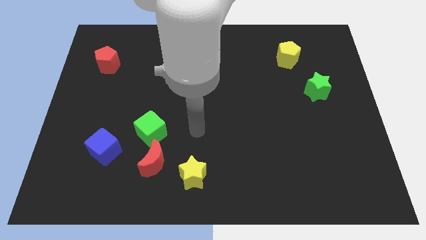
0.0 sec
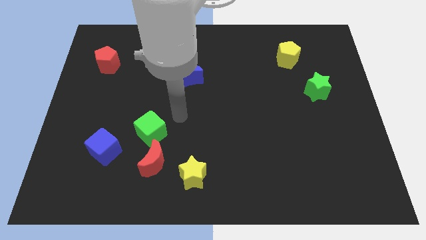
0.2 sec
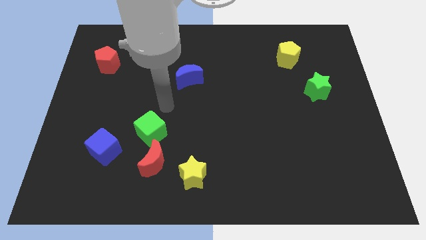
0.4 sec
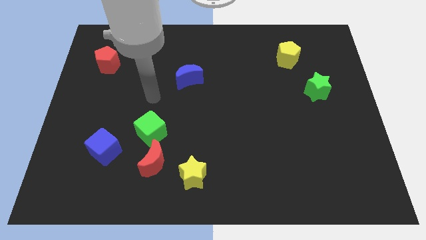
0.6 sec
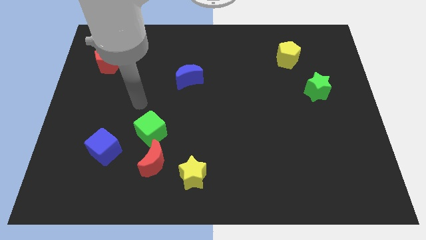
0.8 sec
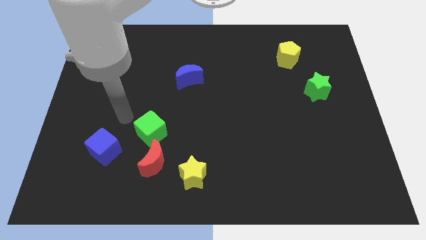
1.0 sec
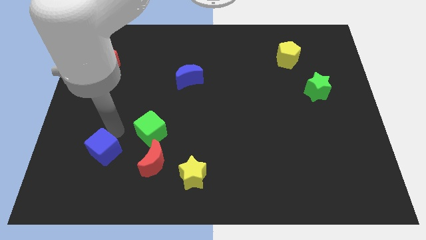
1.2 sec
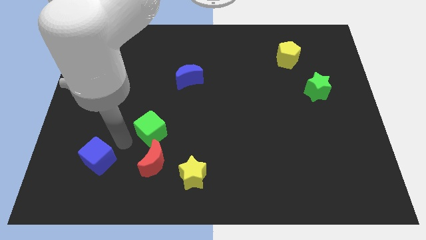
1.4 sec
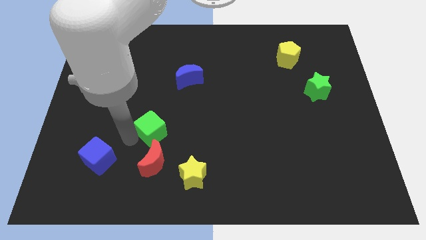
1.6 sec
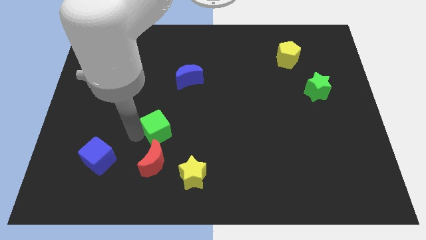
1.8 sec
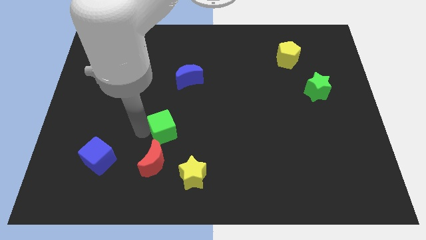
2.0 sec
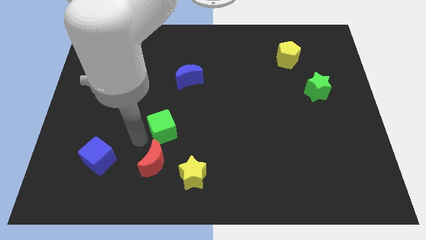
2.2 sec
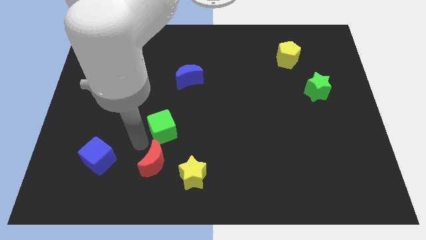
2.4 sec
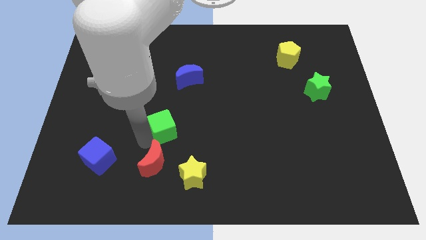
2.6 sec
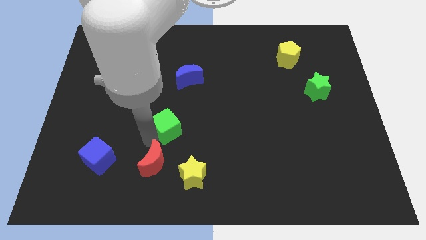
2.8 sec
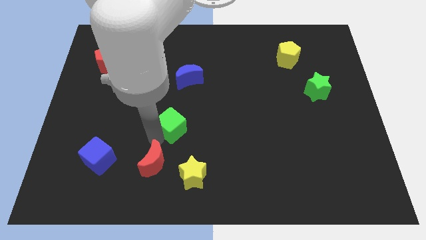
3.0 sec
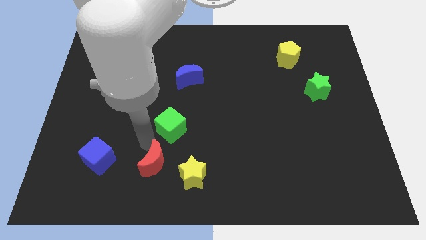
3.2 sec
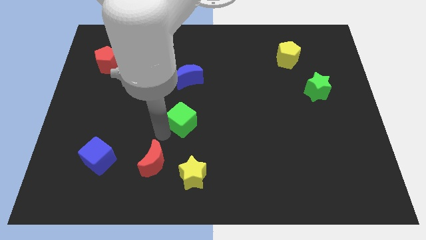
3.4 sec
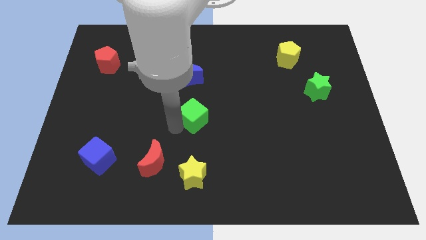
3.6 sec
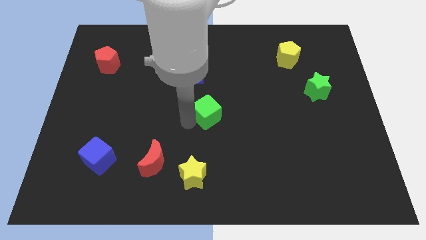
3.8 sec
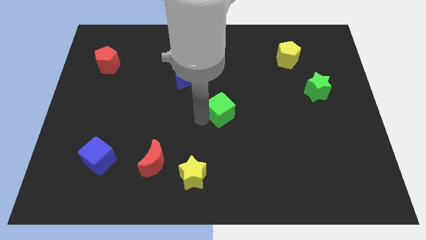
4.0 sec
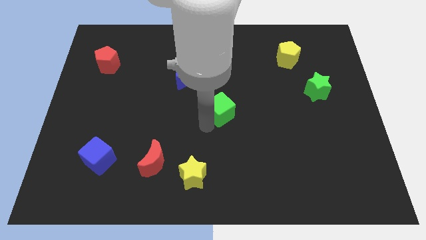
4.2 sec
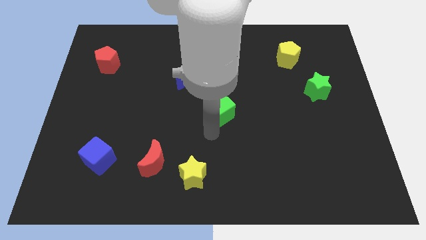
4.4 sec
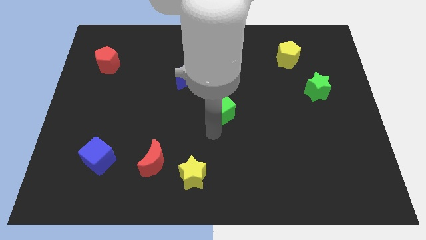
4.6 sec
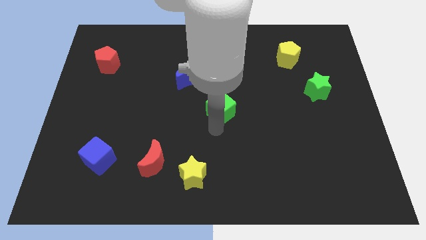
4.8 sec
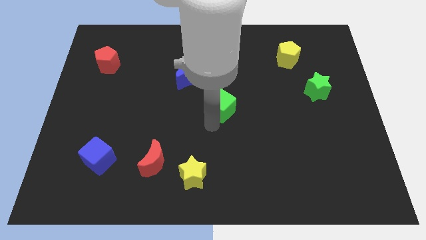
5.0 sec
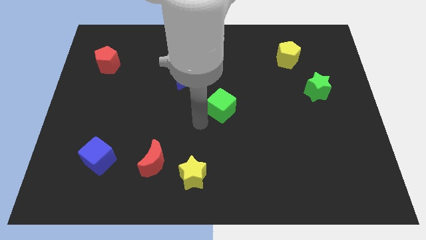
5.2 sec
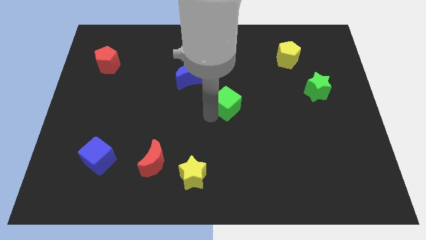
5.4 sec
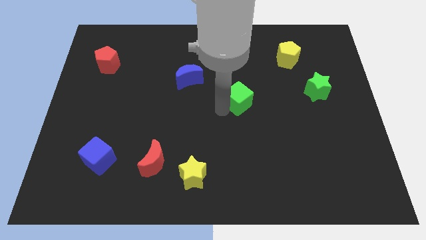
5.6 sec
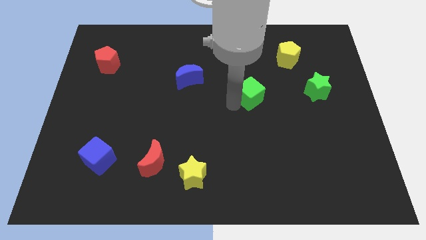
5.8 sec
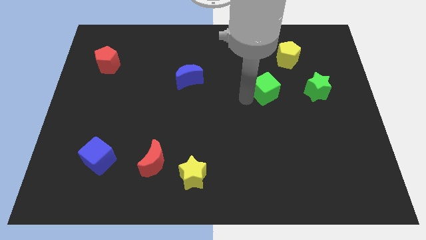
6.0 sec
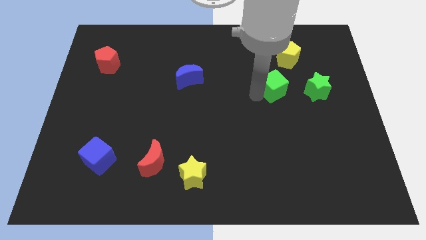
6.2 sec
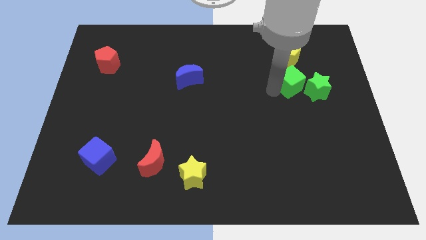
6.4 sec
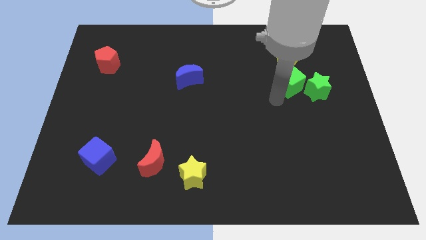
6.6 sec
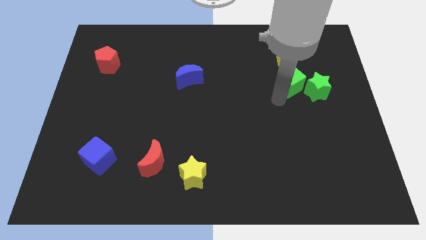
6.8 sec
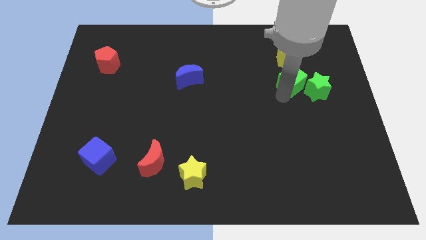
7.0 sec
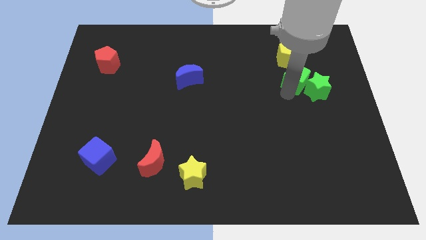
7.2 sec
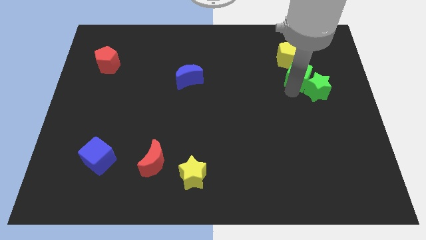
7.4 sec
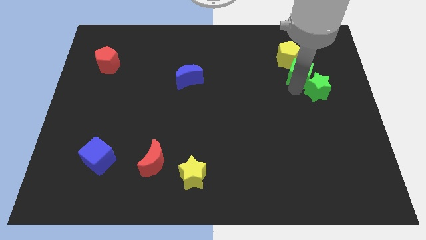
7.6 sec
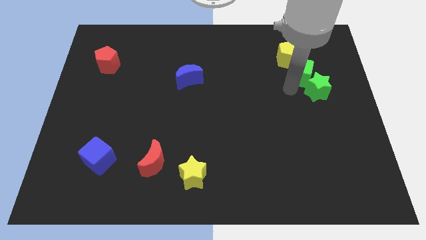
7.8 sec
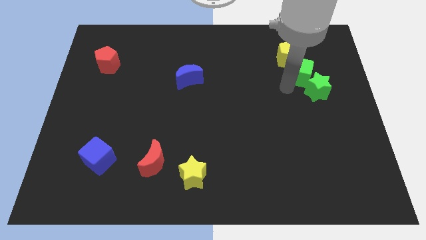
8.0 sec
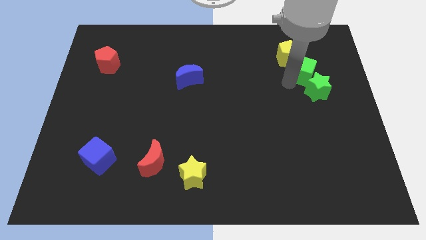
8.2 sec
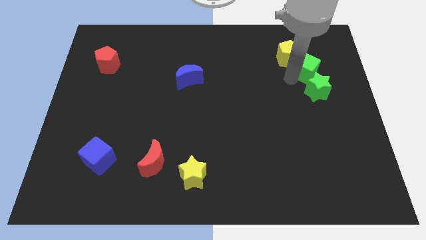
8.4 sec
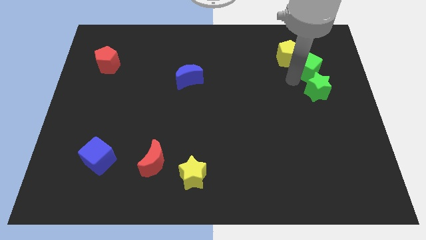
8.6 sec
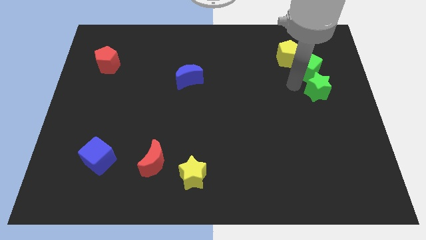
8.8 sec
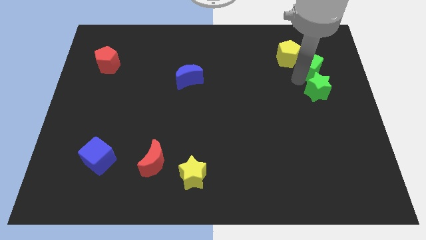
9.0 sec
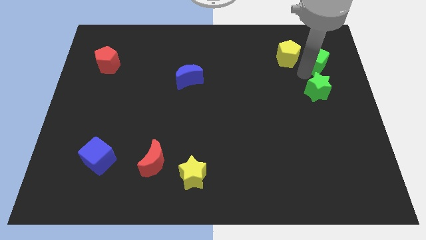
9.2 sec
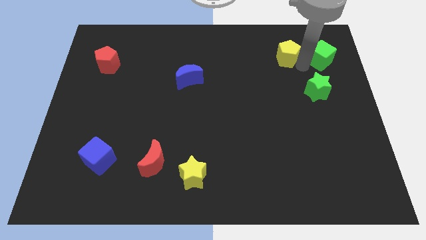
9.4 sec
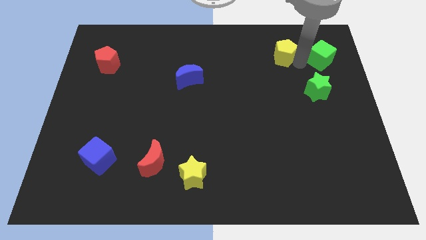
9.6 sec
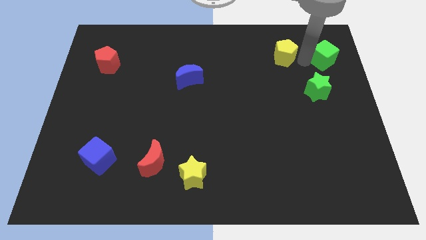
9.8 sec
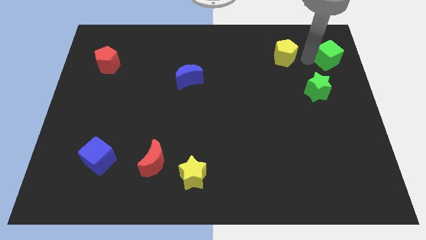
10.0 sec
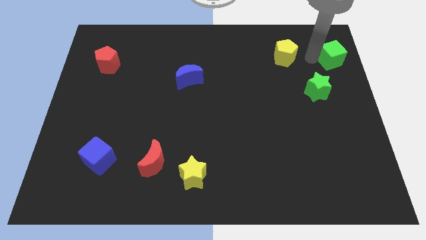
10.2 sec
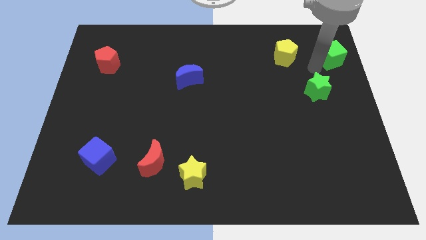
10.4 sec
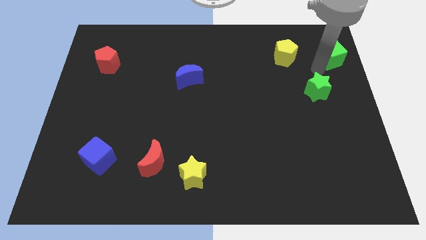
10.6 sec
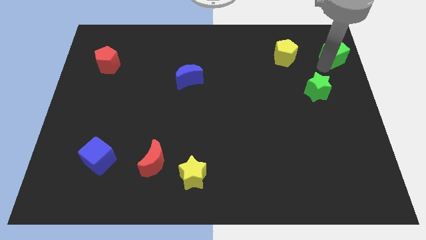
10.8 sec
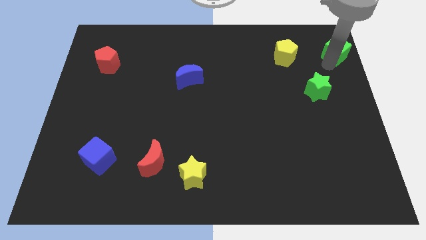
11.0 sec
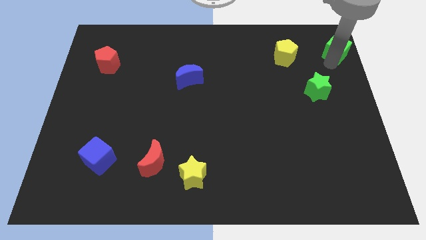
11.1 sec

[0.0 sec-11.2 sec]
slide the green cube to the top right
